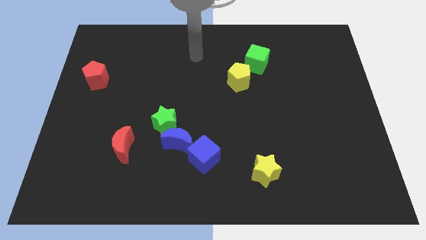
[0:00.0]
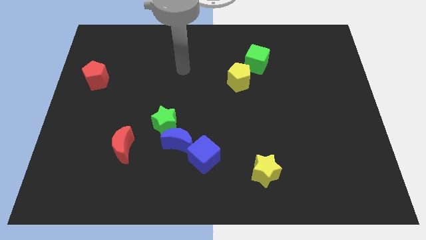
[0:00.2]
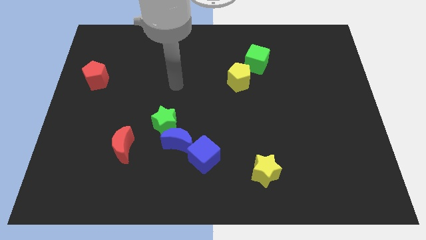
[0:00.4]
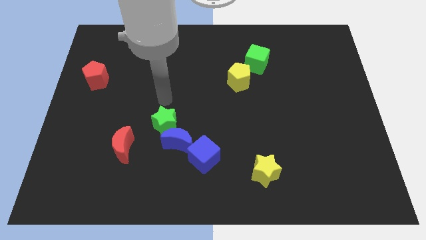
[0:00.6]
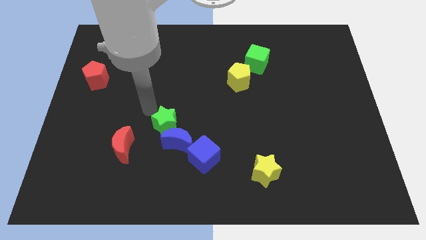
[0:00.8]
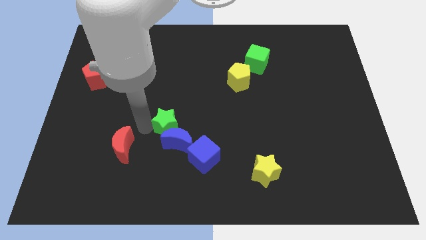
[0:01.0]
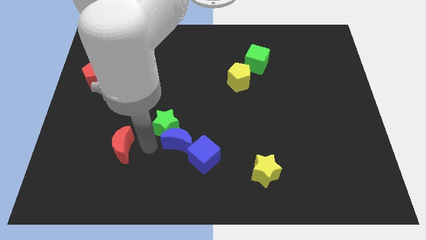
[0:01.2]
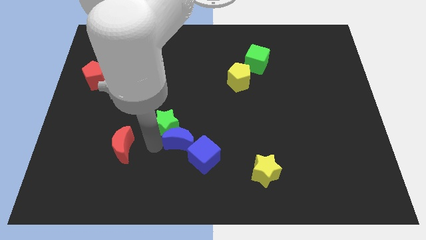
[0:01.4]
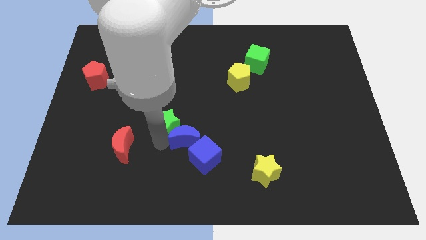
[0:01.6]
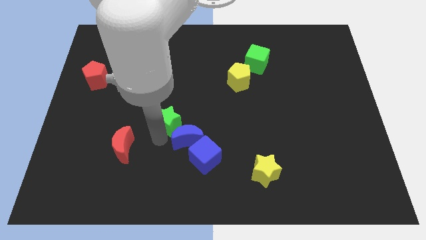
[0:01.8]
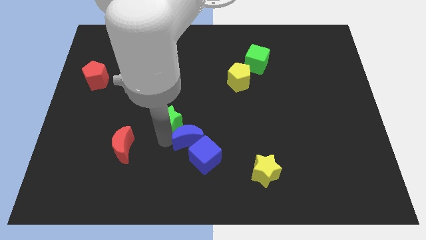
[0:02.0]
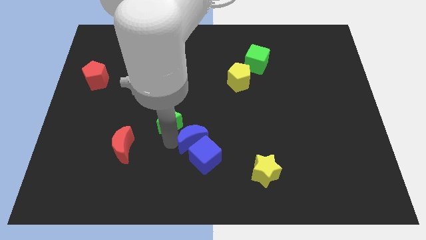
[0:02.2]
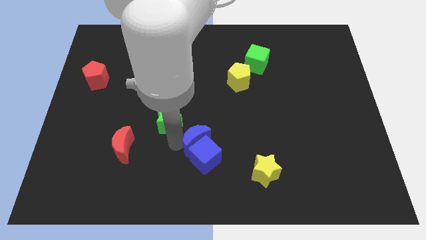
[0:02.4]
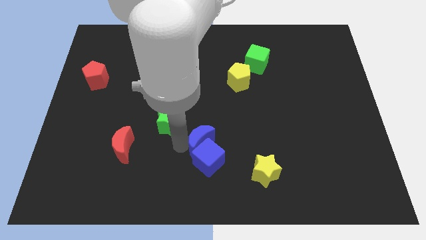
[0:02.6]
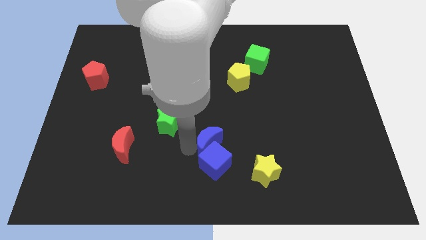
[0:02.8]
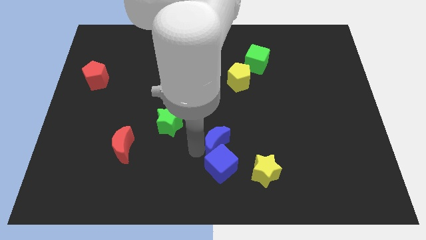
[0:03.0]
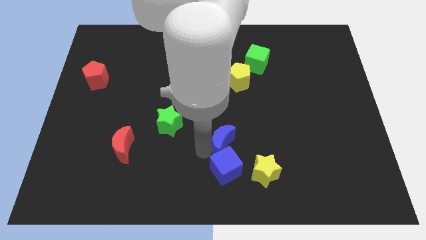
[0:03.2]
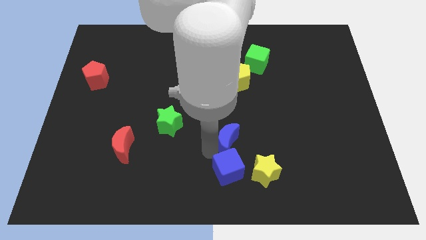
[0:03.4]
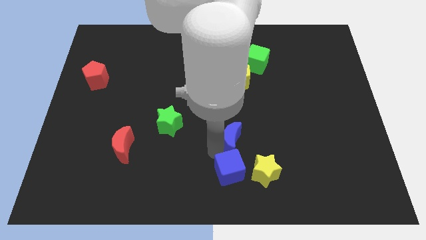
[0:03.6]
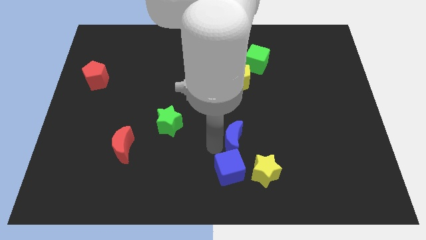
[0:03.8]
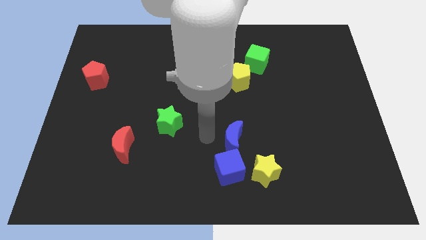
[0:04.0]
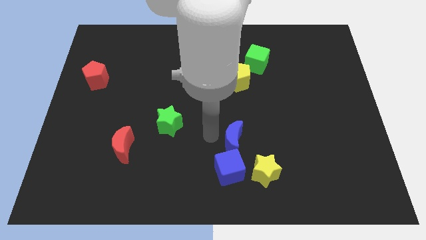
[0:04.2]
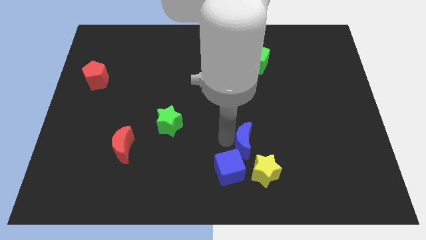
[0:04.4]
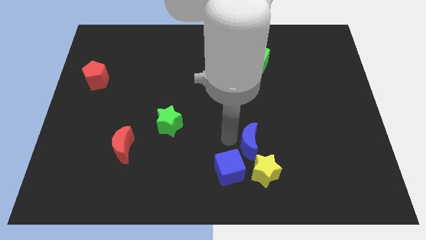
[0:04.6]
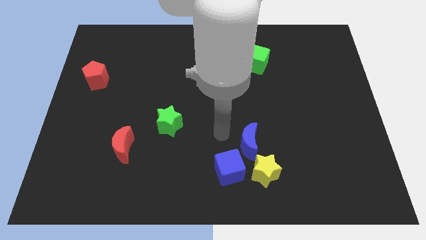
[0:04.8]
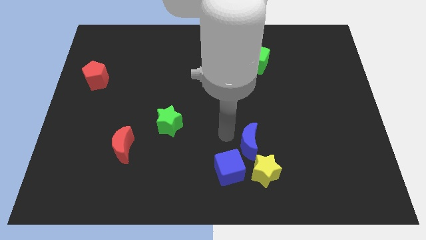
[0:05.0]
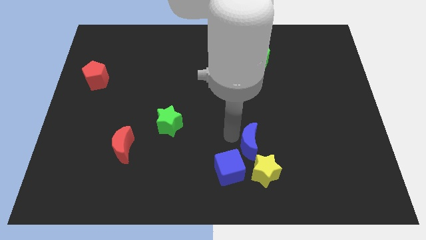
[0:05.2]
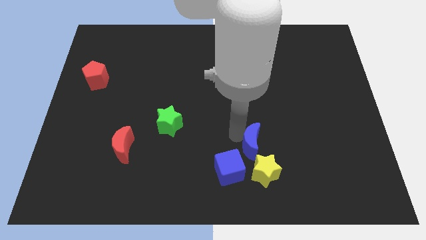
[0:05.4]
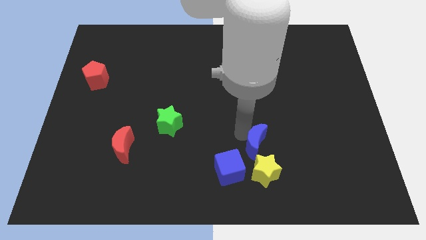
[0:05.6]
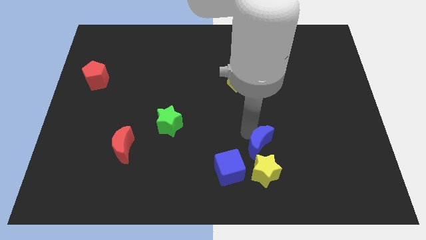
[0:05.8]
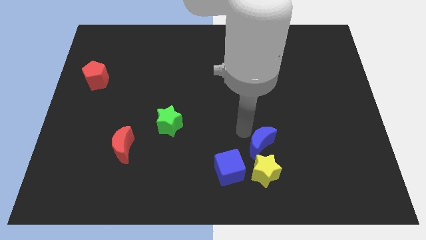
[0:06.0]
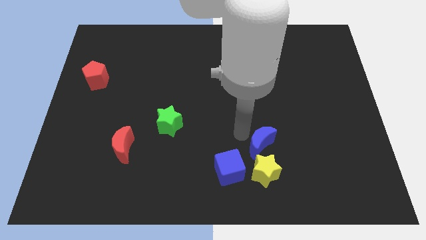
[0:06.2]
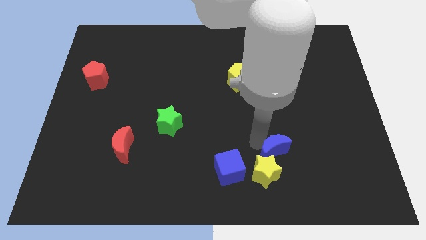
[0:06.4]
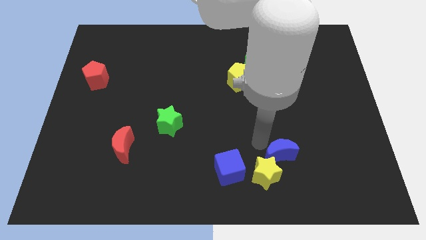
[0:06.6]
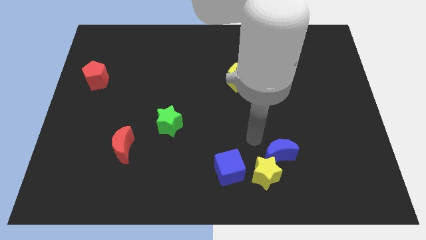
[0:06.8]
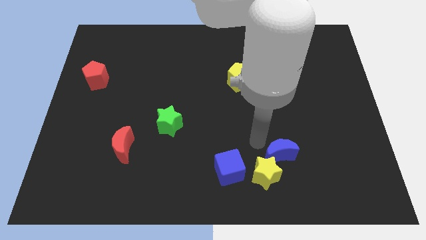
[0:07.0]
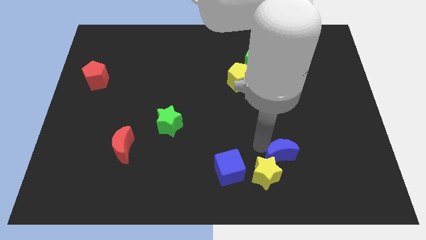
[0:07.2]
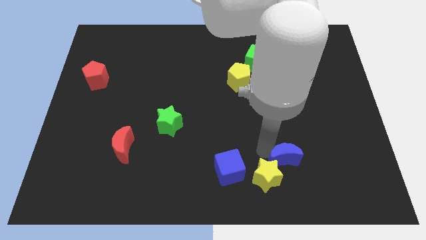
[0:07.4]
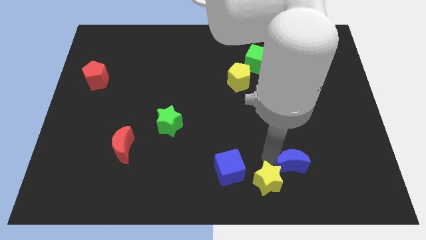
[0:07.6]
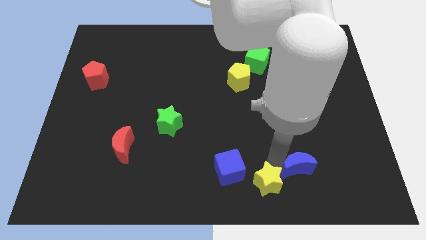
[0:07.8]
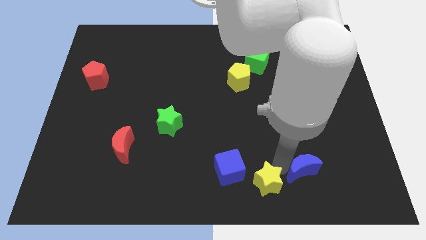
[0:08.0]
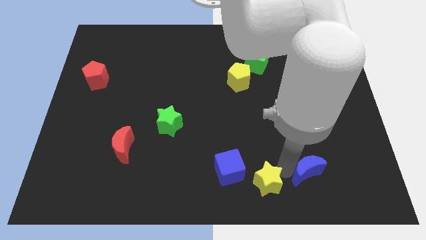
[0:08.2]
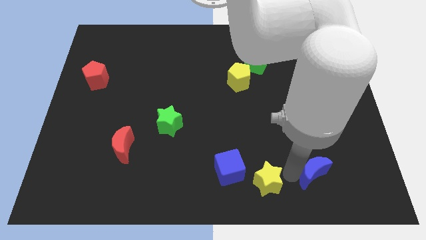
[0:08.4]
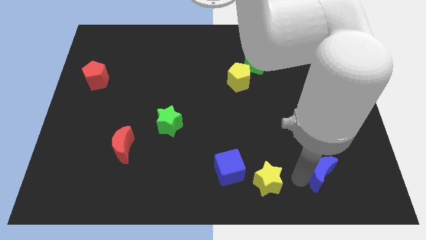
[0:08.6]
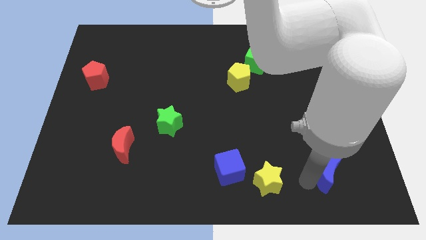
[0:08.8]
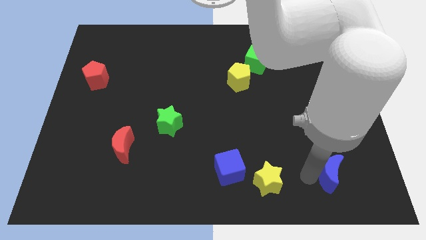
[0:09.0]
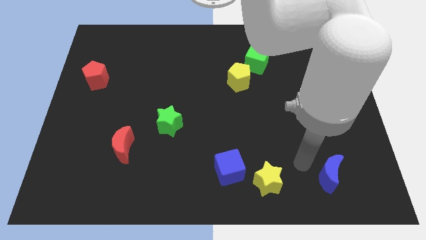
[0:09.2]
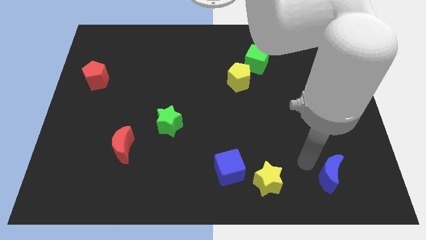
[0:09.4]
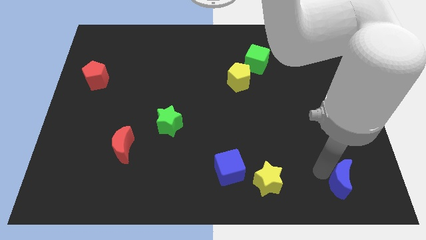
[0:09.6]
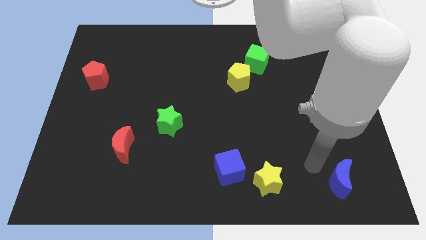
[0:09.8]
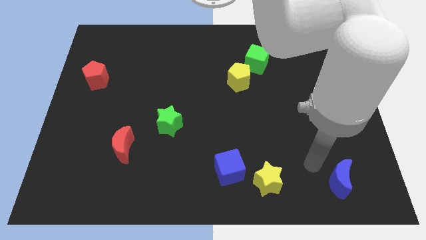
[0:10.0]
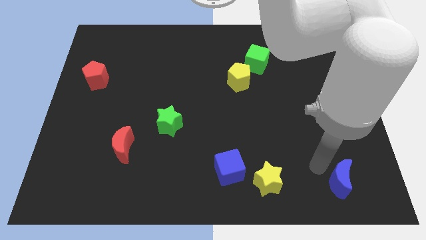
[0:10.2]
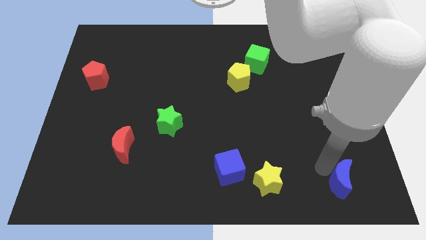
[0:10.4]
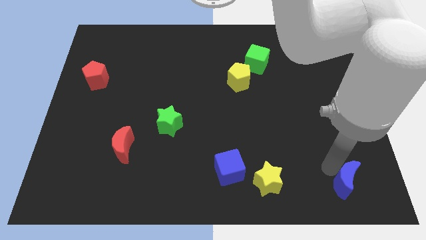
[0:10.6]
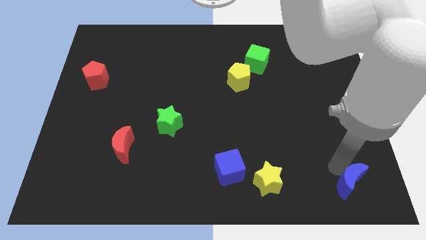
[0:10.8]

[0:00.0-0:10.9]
push the blue moon to the bottom right corner

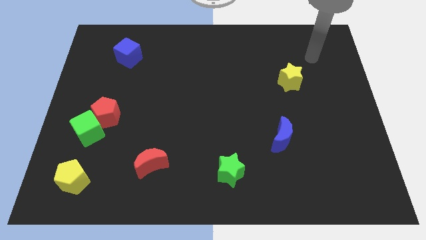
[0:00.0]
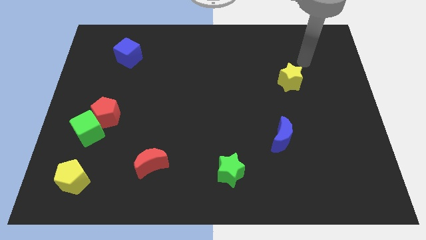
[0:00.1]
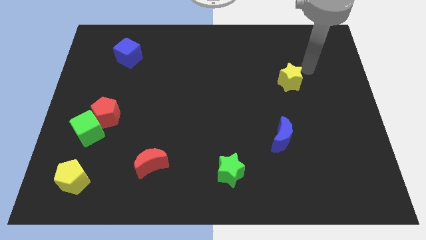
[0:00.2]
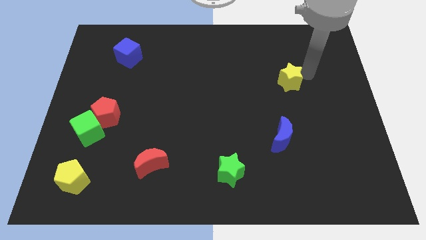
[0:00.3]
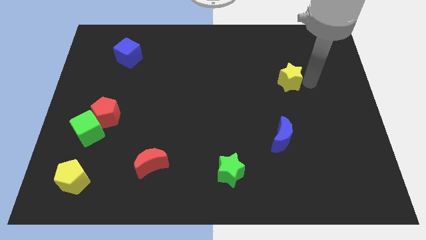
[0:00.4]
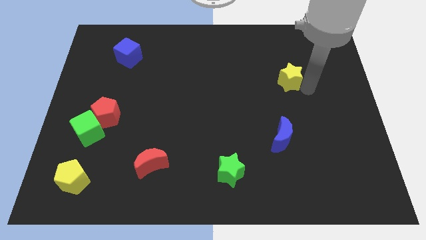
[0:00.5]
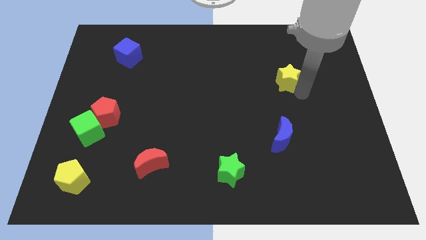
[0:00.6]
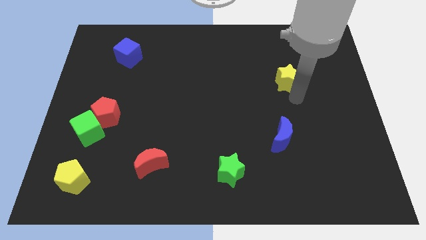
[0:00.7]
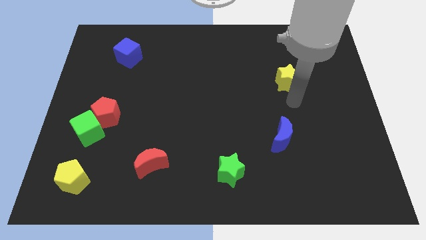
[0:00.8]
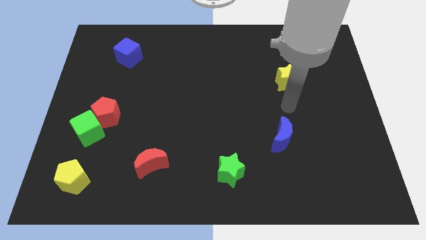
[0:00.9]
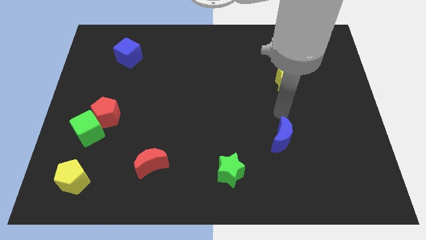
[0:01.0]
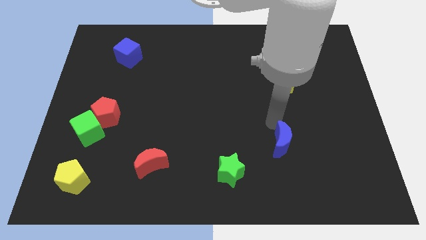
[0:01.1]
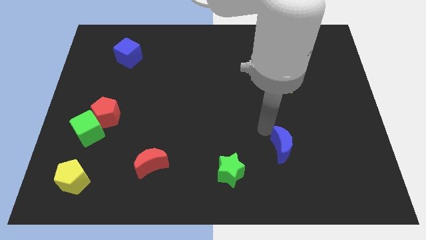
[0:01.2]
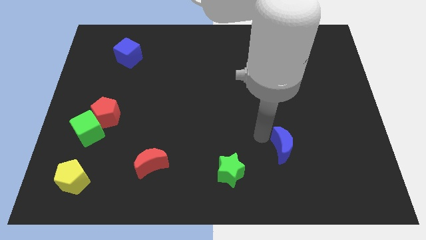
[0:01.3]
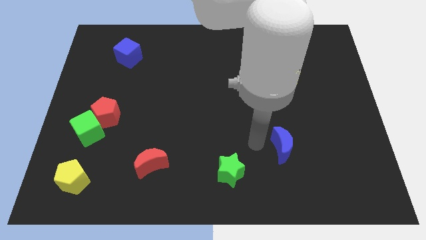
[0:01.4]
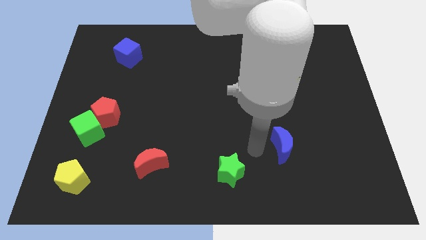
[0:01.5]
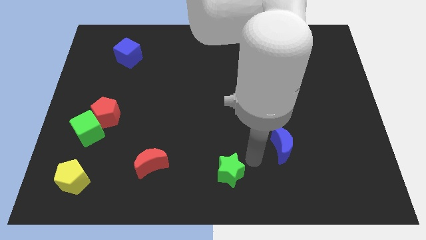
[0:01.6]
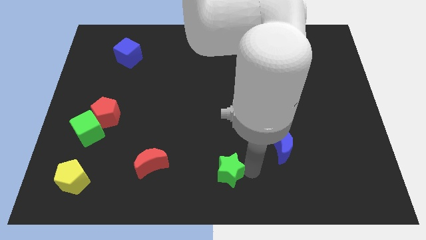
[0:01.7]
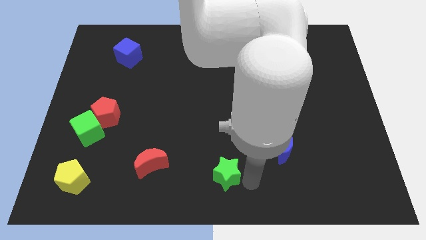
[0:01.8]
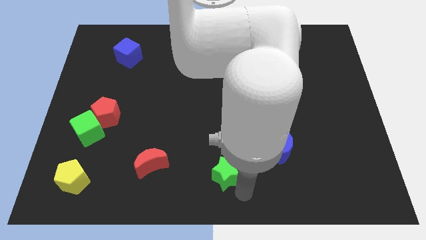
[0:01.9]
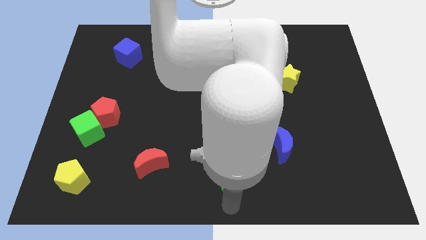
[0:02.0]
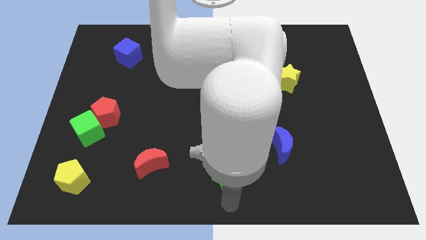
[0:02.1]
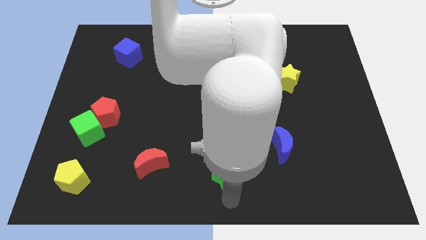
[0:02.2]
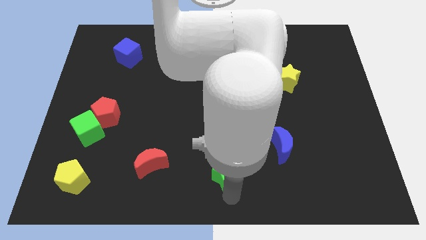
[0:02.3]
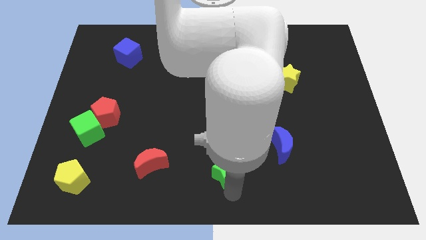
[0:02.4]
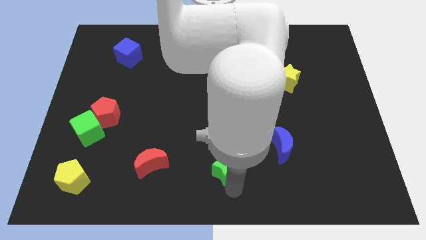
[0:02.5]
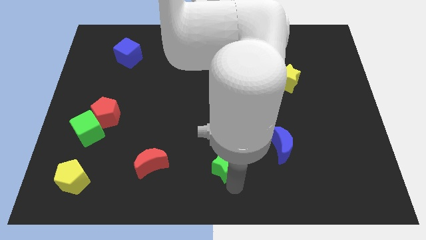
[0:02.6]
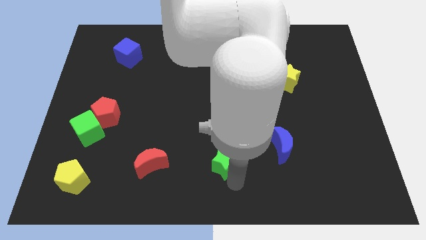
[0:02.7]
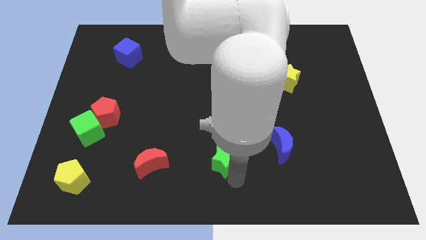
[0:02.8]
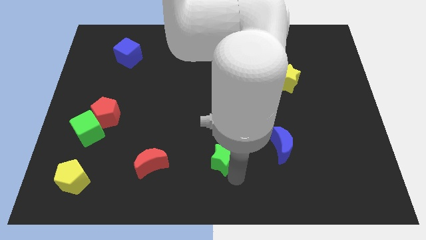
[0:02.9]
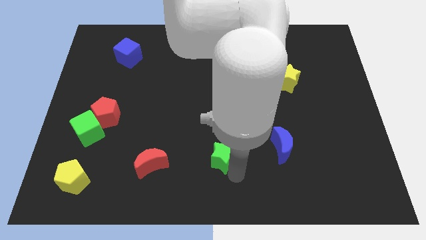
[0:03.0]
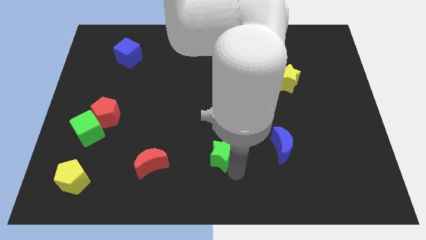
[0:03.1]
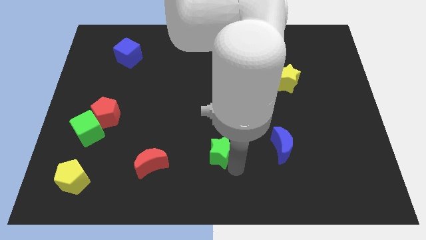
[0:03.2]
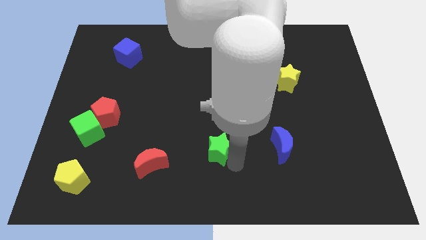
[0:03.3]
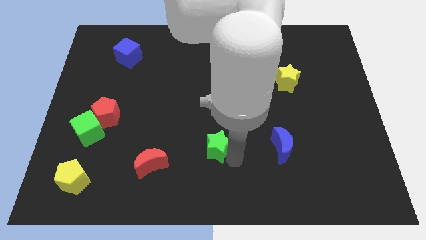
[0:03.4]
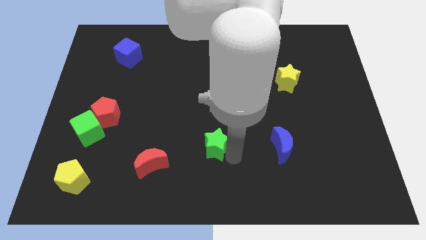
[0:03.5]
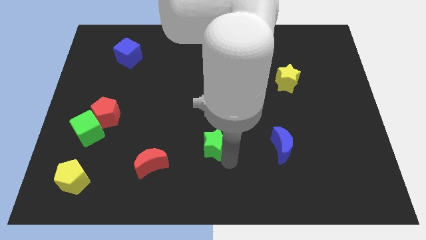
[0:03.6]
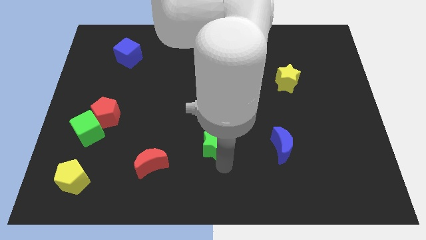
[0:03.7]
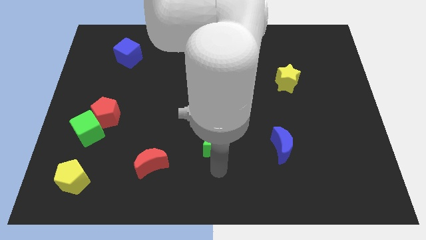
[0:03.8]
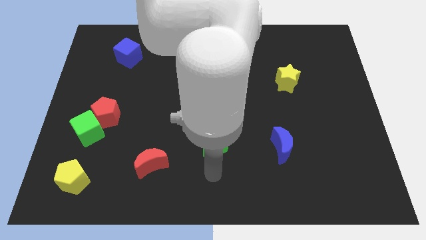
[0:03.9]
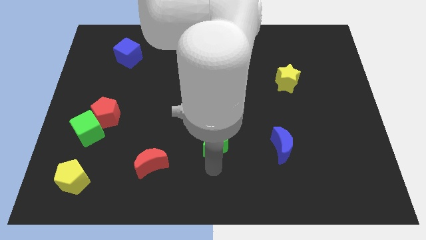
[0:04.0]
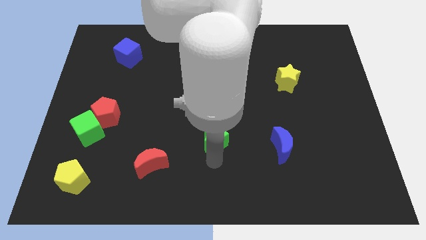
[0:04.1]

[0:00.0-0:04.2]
move the green star to the center of the board
